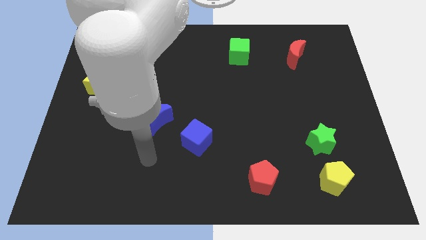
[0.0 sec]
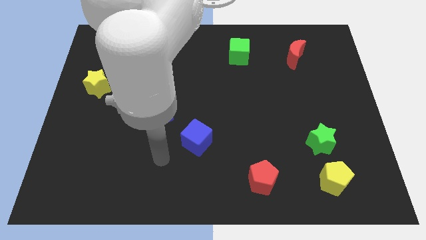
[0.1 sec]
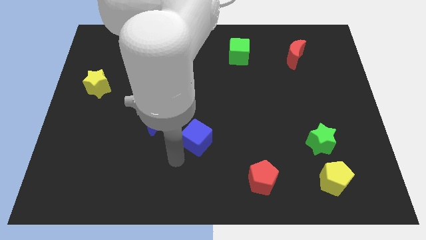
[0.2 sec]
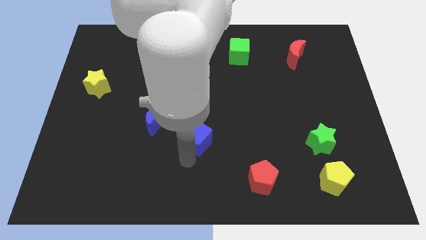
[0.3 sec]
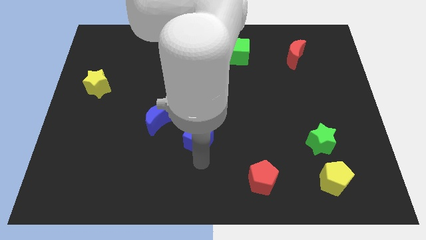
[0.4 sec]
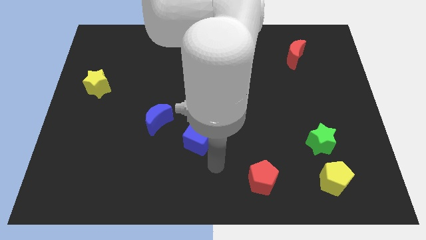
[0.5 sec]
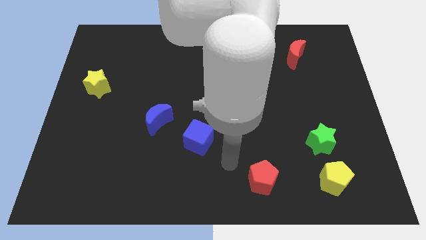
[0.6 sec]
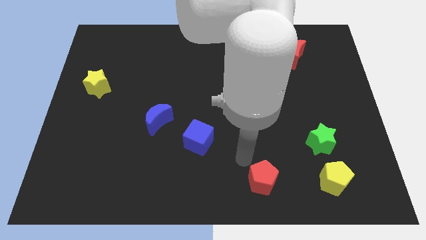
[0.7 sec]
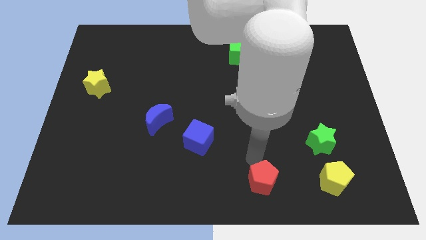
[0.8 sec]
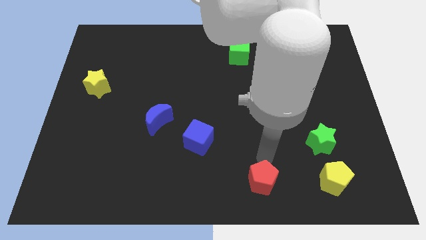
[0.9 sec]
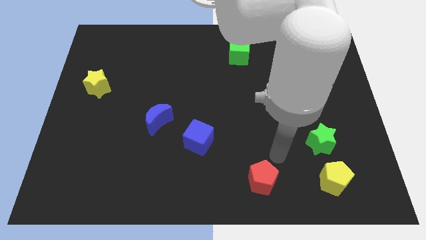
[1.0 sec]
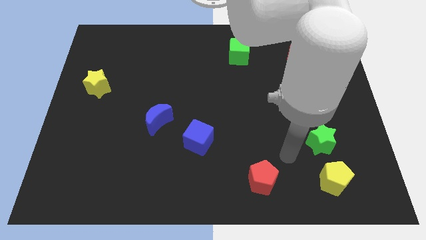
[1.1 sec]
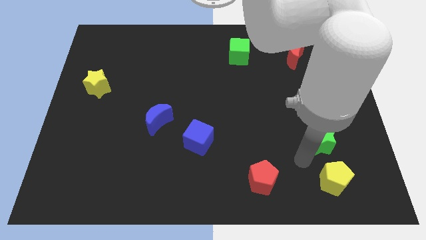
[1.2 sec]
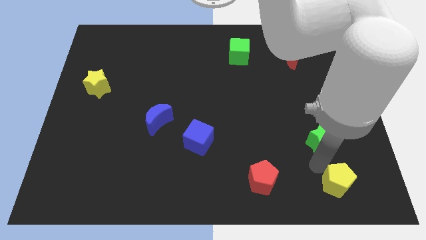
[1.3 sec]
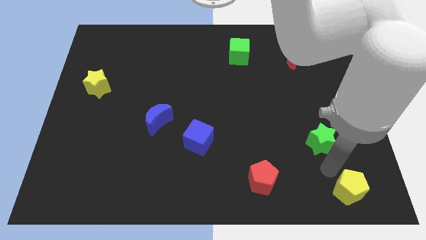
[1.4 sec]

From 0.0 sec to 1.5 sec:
separate the green star from the yellow pentagon

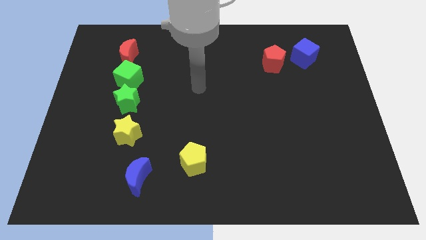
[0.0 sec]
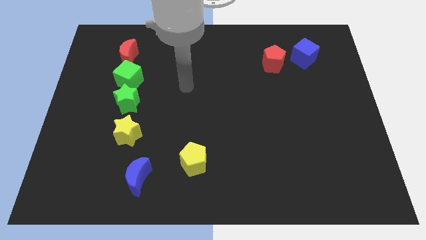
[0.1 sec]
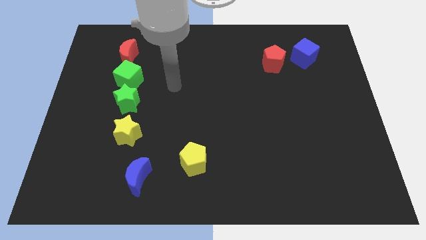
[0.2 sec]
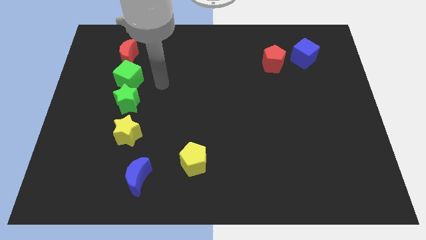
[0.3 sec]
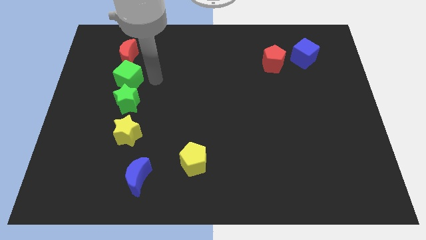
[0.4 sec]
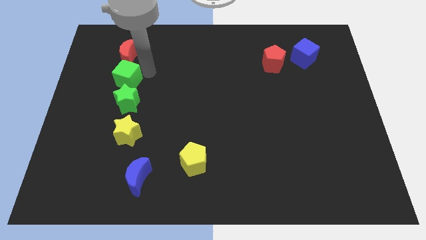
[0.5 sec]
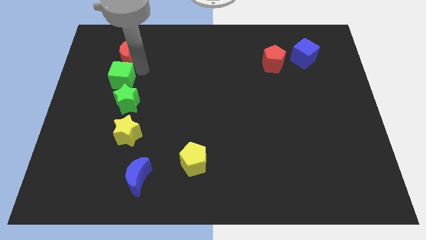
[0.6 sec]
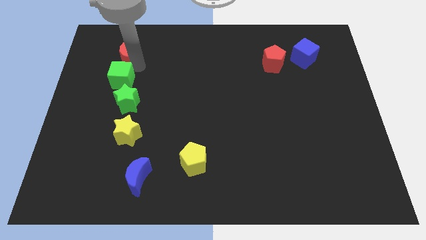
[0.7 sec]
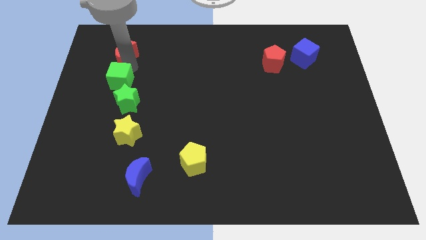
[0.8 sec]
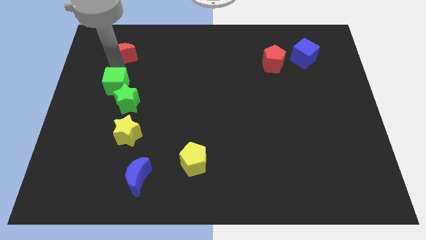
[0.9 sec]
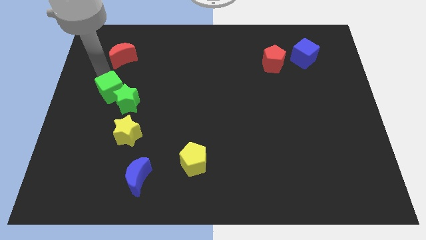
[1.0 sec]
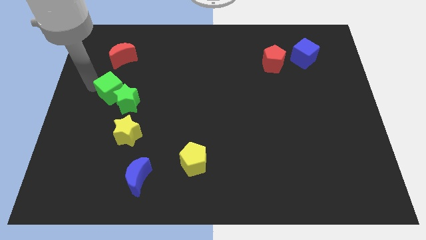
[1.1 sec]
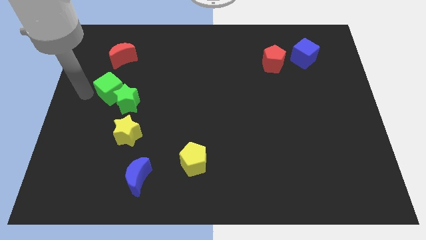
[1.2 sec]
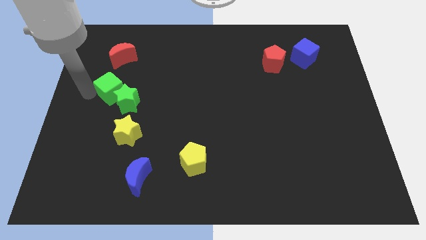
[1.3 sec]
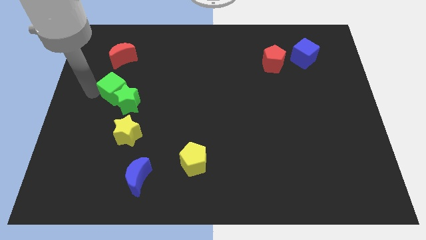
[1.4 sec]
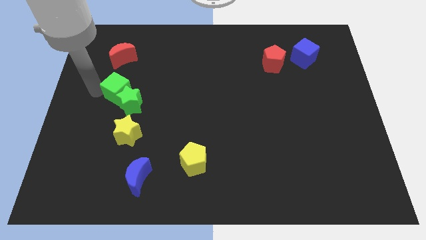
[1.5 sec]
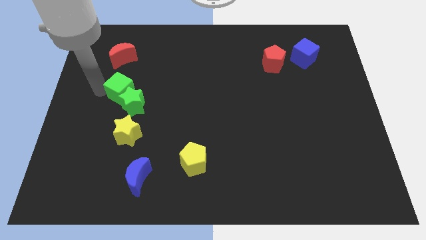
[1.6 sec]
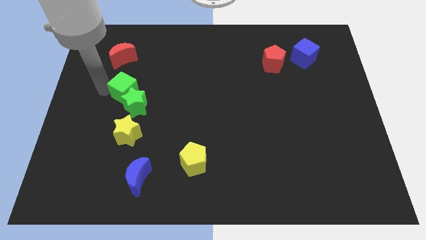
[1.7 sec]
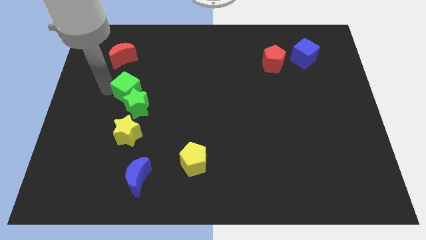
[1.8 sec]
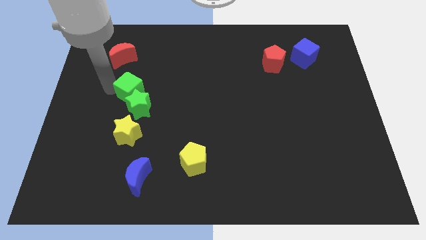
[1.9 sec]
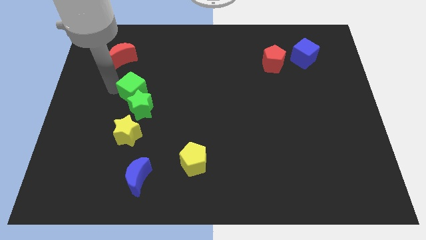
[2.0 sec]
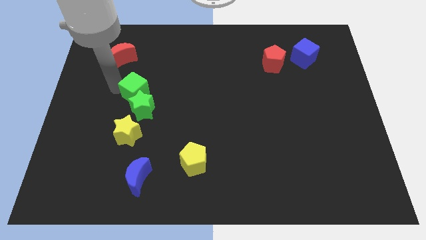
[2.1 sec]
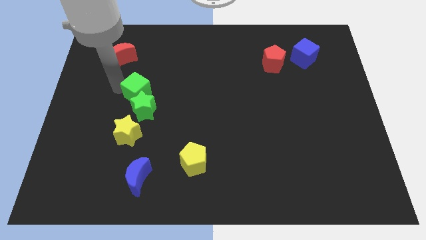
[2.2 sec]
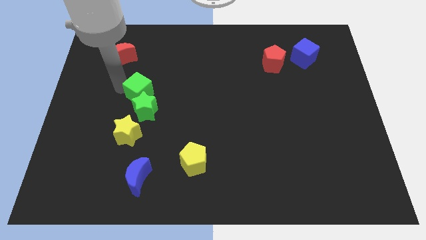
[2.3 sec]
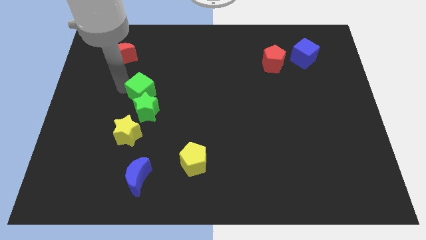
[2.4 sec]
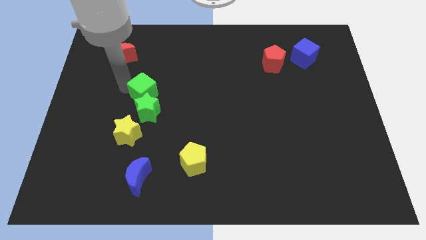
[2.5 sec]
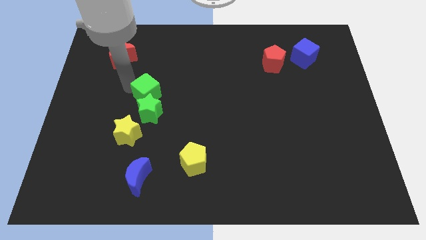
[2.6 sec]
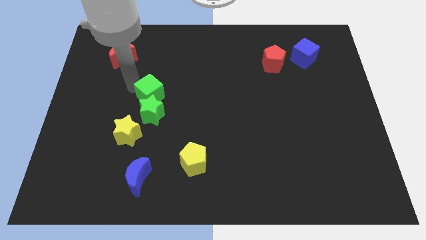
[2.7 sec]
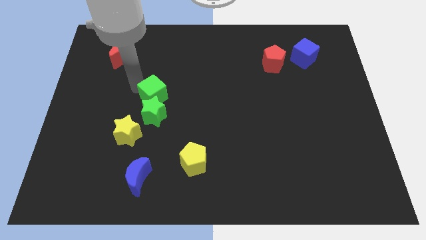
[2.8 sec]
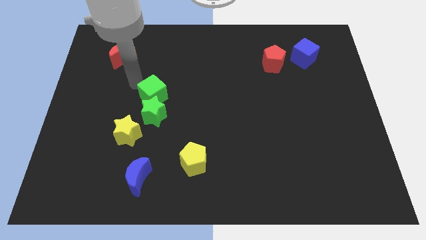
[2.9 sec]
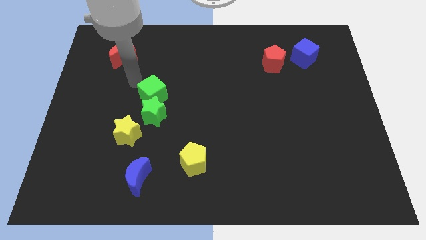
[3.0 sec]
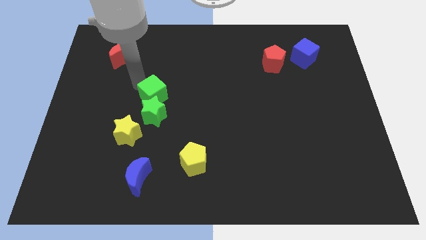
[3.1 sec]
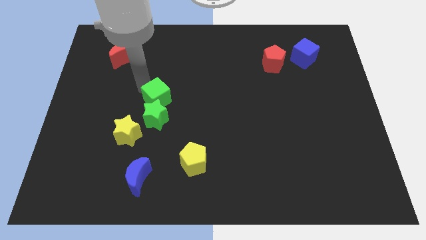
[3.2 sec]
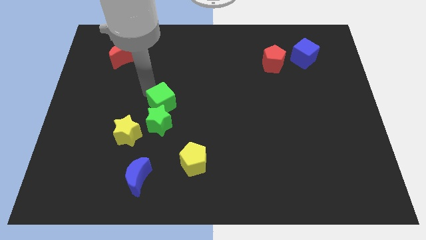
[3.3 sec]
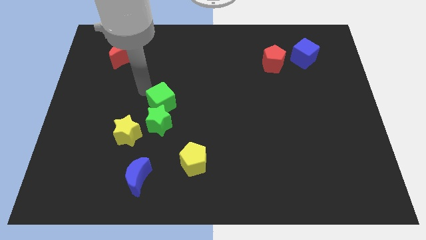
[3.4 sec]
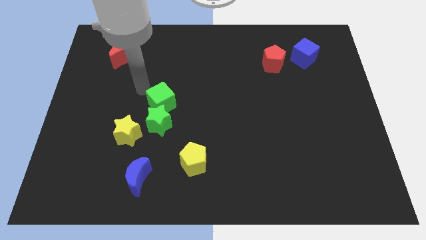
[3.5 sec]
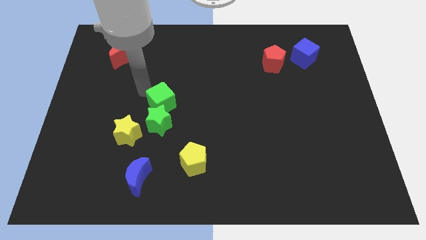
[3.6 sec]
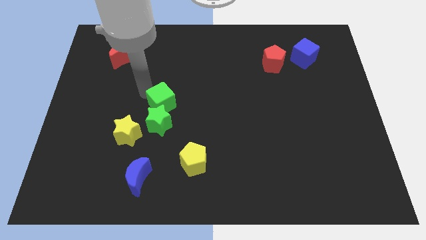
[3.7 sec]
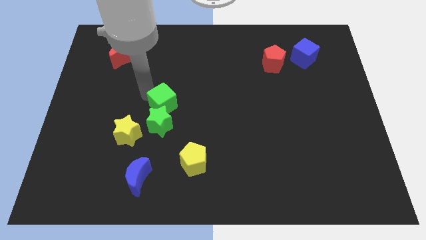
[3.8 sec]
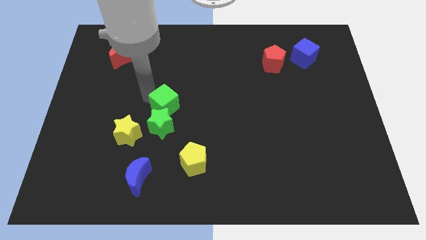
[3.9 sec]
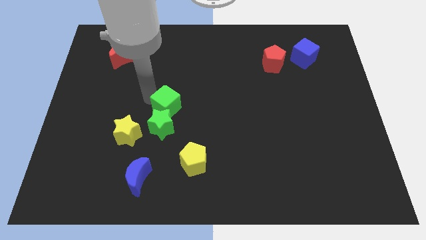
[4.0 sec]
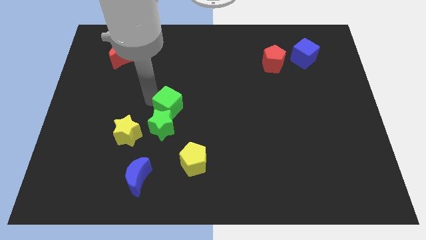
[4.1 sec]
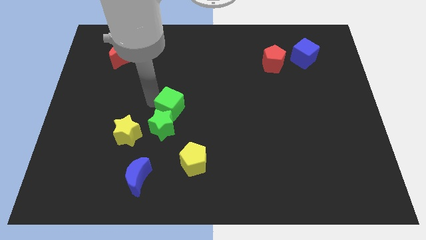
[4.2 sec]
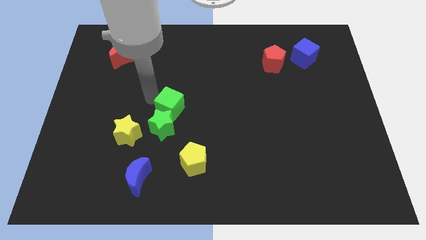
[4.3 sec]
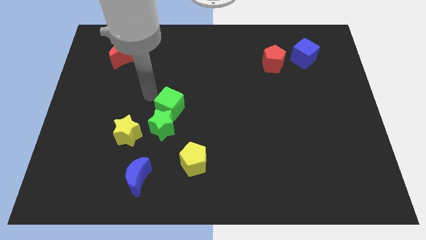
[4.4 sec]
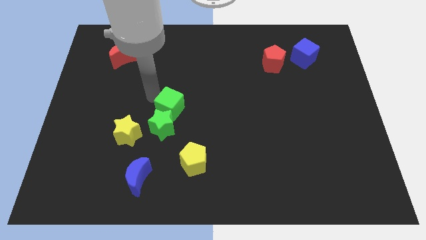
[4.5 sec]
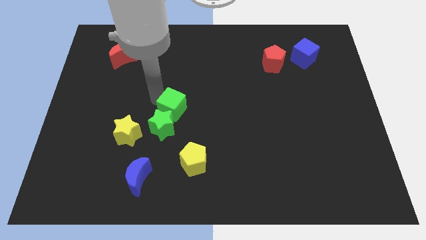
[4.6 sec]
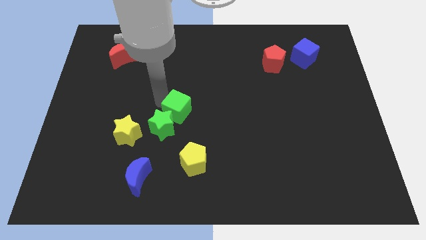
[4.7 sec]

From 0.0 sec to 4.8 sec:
pull the green cube apart from the green star and red moon

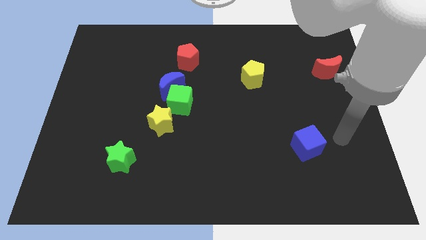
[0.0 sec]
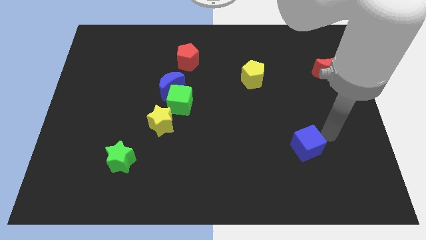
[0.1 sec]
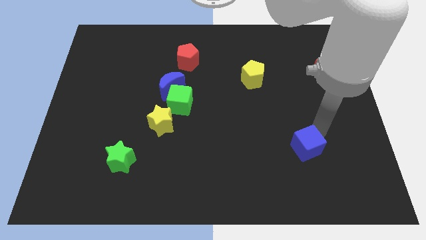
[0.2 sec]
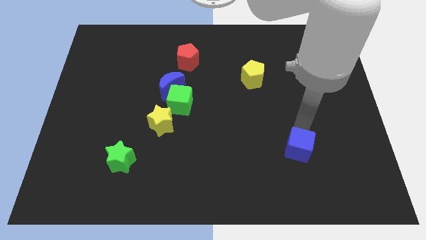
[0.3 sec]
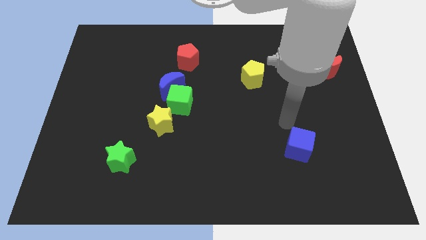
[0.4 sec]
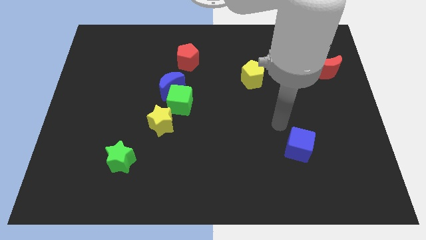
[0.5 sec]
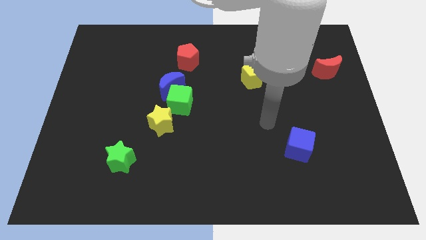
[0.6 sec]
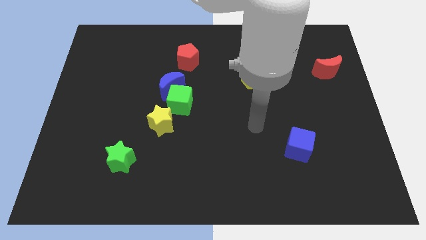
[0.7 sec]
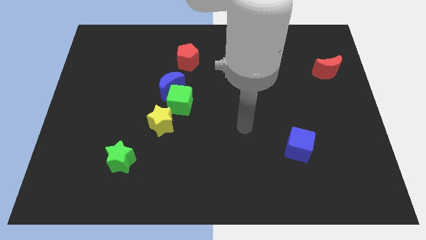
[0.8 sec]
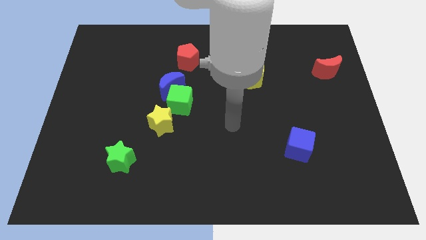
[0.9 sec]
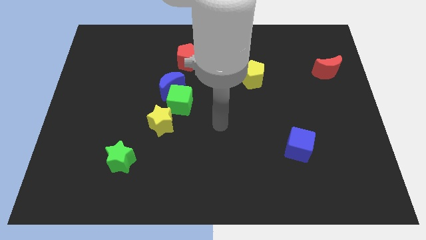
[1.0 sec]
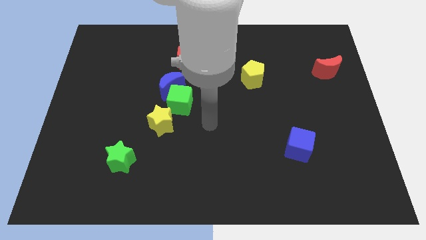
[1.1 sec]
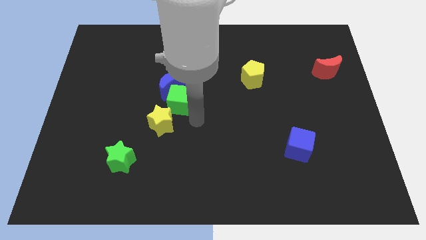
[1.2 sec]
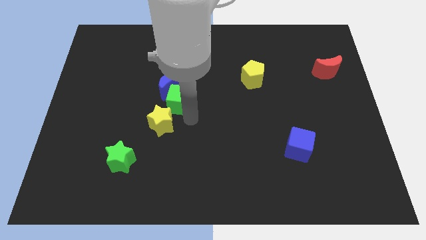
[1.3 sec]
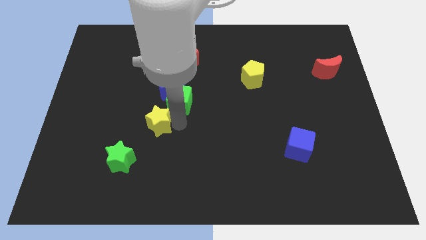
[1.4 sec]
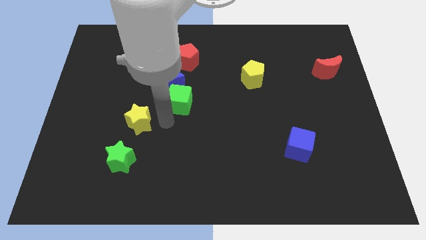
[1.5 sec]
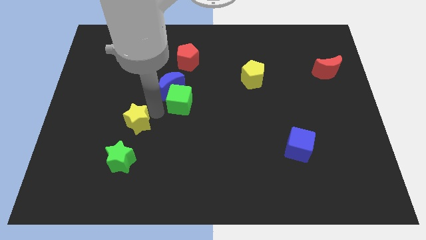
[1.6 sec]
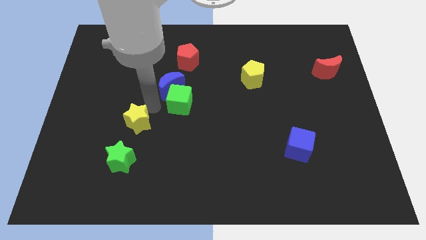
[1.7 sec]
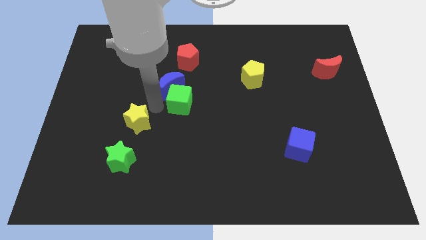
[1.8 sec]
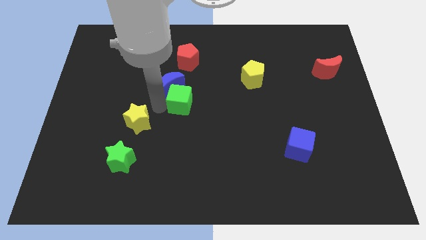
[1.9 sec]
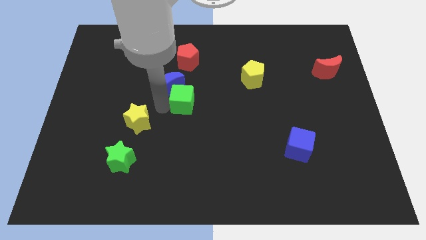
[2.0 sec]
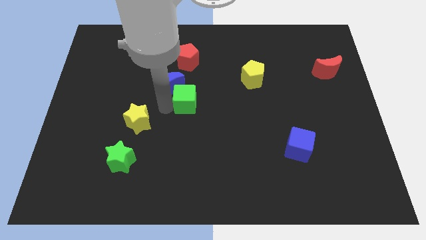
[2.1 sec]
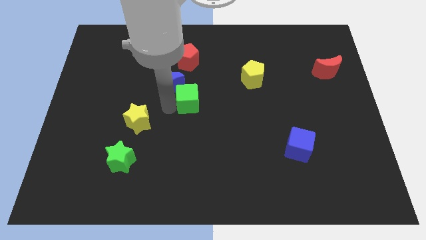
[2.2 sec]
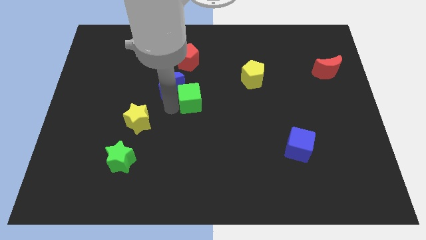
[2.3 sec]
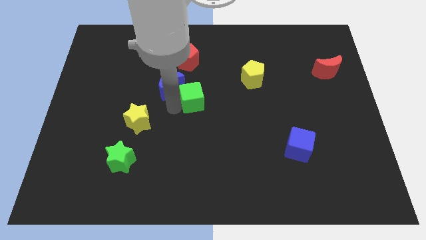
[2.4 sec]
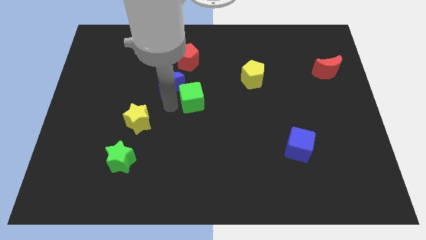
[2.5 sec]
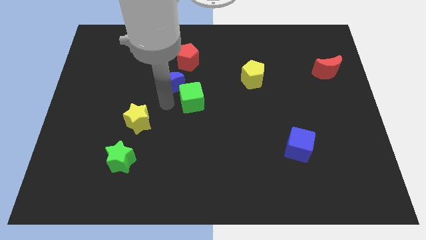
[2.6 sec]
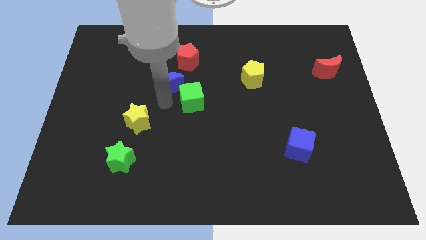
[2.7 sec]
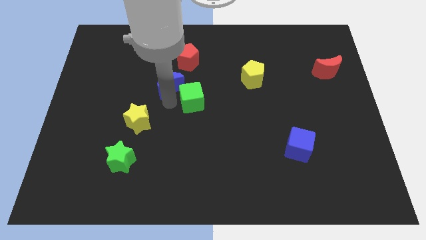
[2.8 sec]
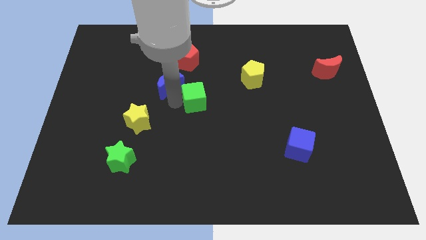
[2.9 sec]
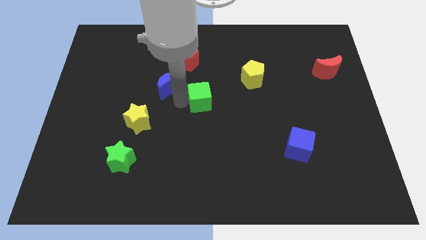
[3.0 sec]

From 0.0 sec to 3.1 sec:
pull the green cube apart from the blue moon and yellow star
